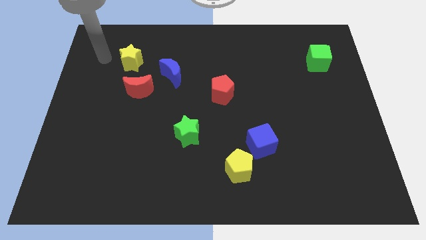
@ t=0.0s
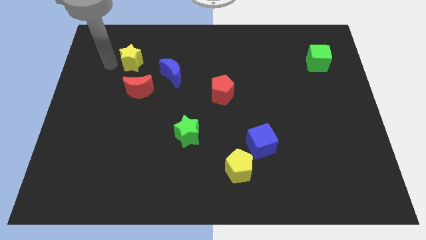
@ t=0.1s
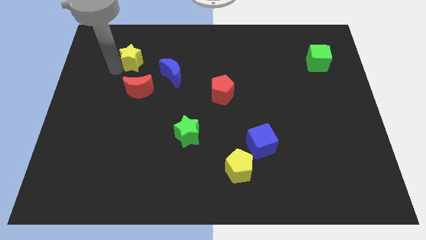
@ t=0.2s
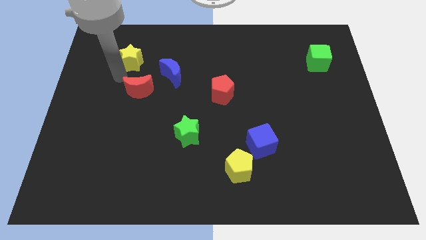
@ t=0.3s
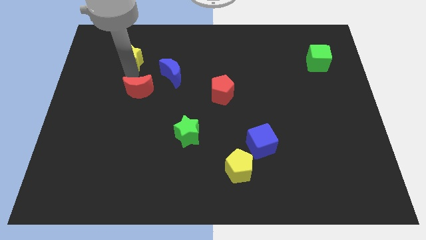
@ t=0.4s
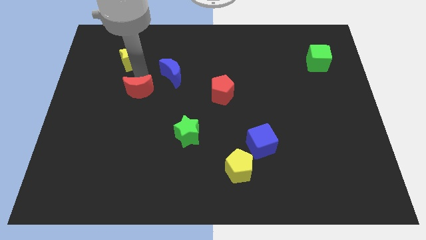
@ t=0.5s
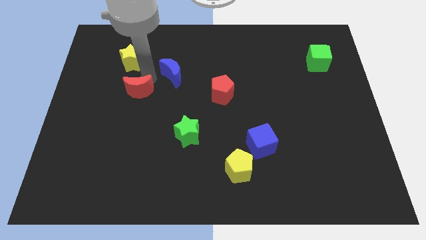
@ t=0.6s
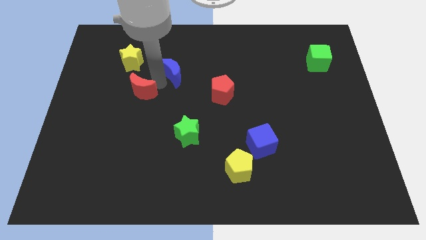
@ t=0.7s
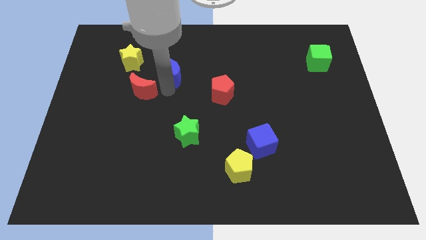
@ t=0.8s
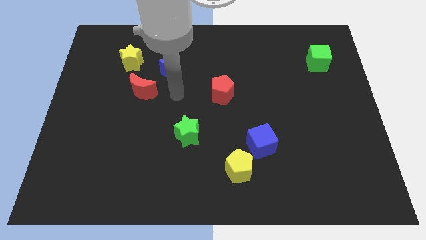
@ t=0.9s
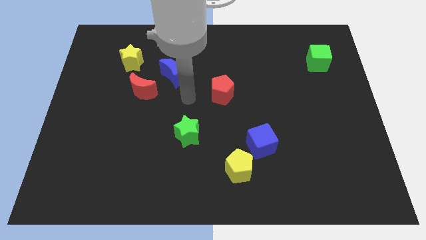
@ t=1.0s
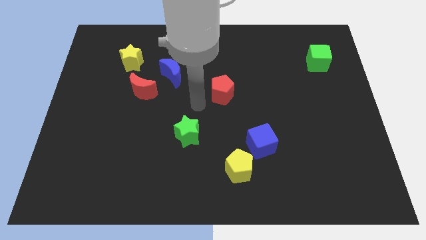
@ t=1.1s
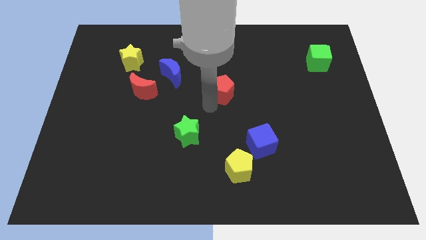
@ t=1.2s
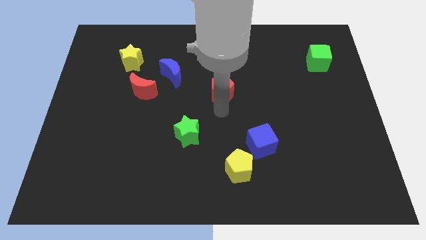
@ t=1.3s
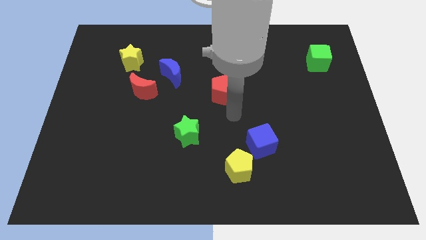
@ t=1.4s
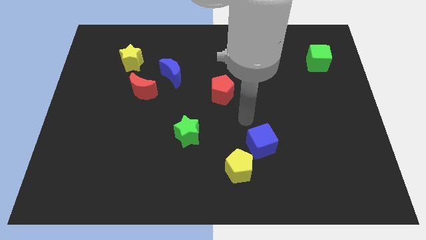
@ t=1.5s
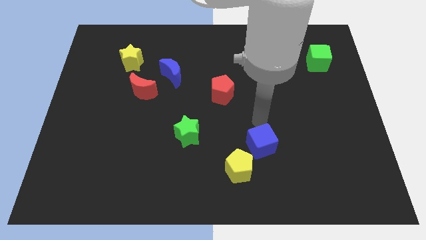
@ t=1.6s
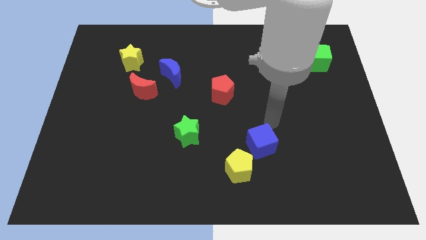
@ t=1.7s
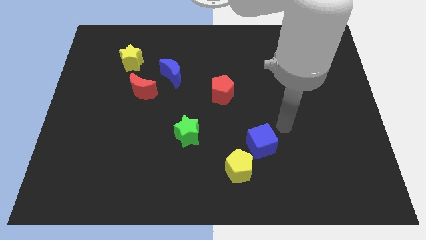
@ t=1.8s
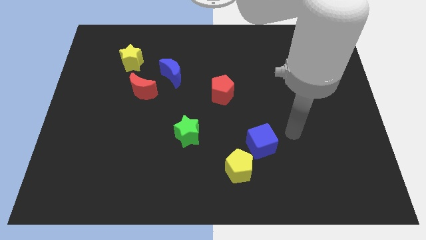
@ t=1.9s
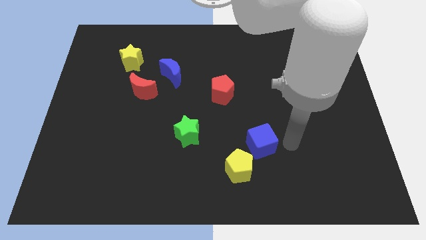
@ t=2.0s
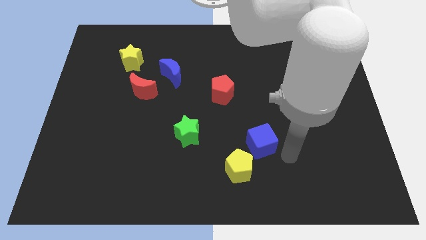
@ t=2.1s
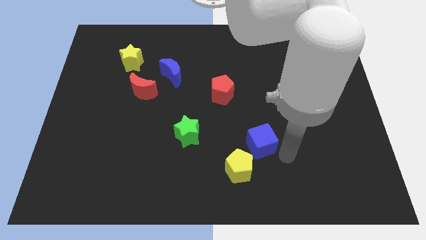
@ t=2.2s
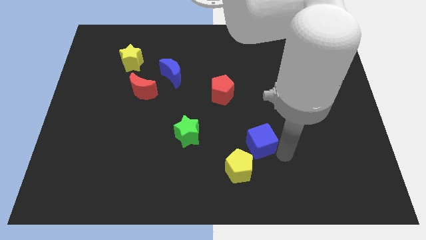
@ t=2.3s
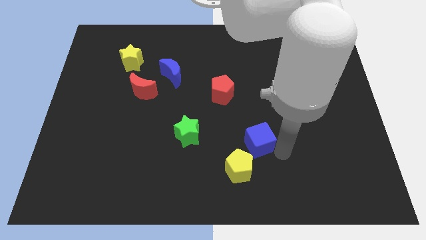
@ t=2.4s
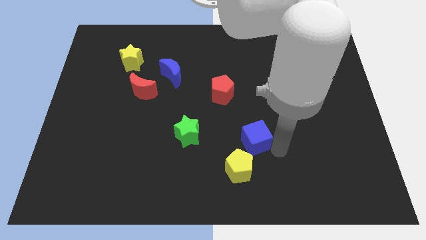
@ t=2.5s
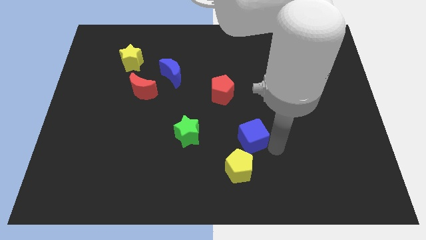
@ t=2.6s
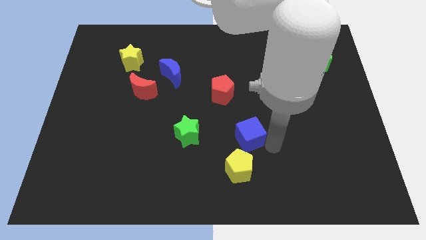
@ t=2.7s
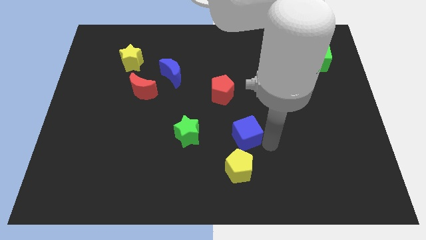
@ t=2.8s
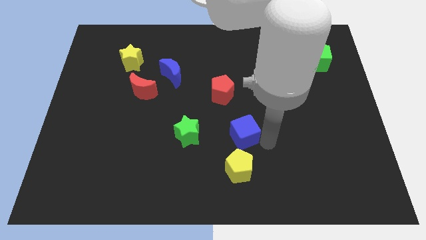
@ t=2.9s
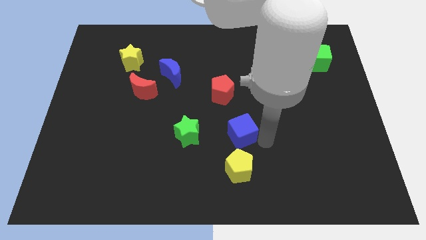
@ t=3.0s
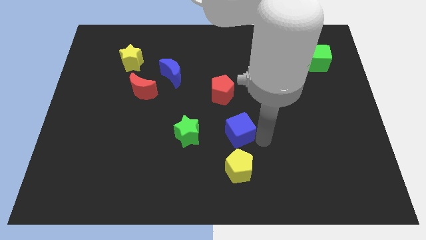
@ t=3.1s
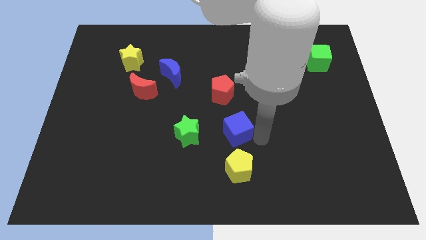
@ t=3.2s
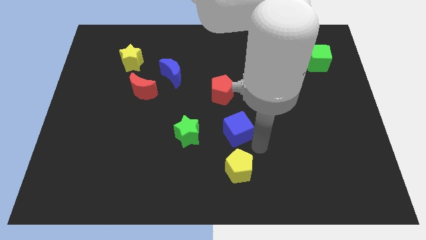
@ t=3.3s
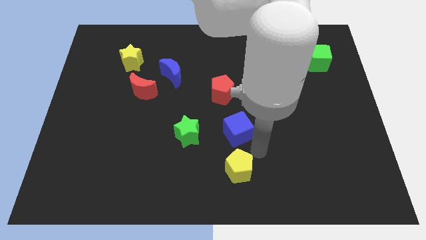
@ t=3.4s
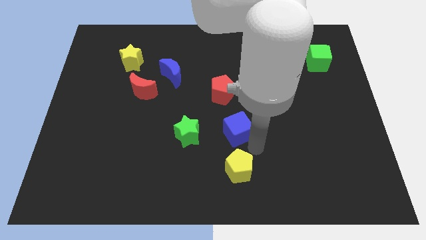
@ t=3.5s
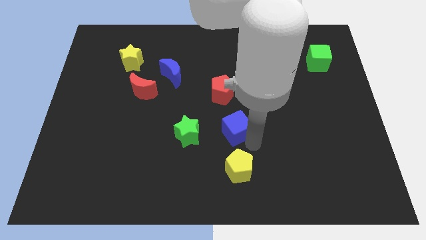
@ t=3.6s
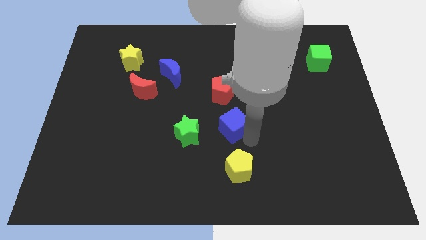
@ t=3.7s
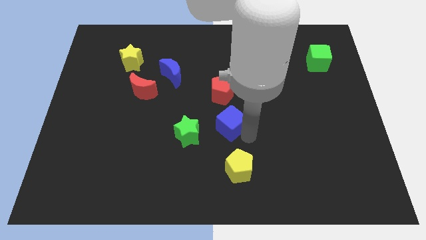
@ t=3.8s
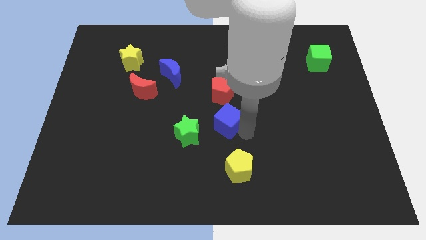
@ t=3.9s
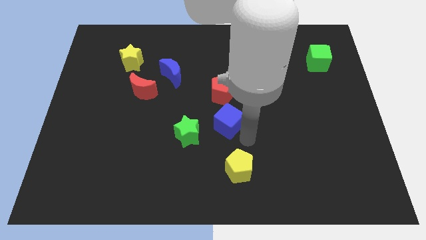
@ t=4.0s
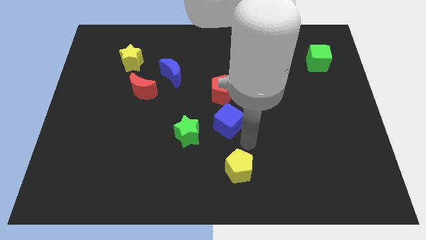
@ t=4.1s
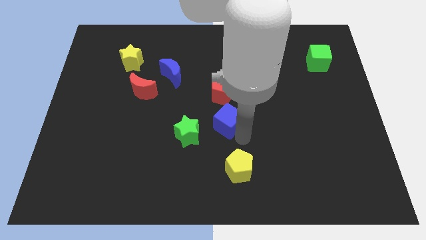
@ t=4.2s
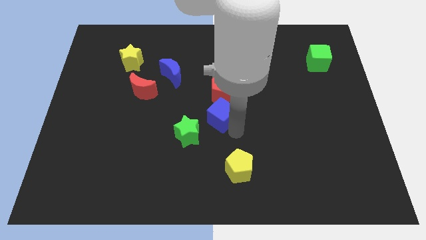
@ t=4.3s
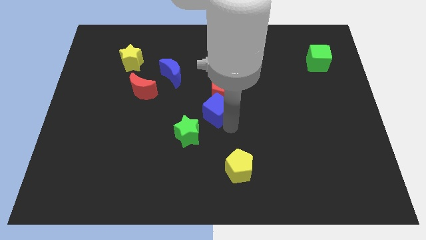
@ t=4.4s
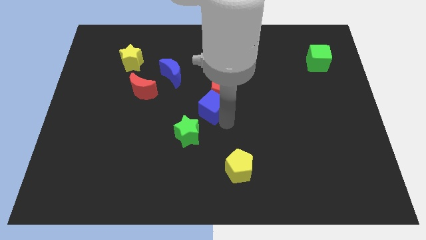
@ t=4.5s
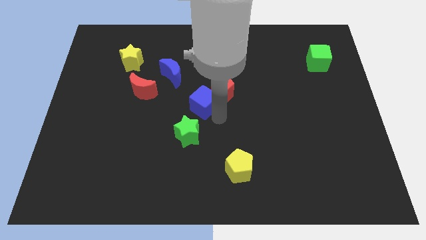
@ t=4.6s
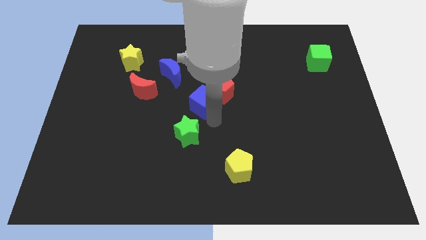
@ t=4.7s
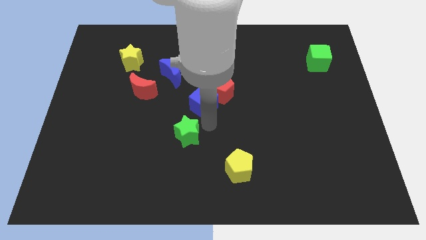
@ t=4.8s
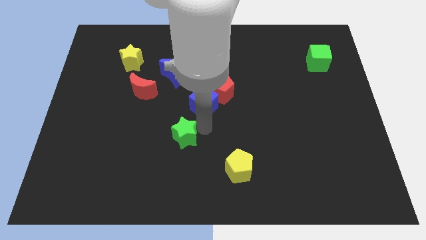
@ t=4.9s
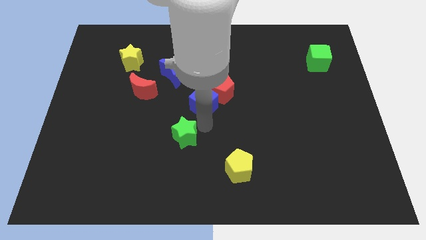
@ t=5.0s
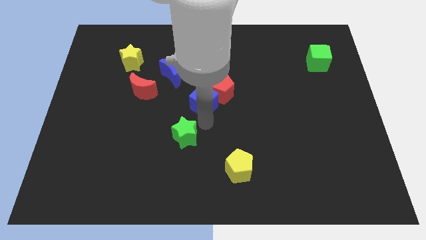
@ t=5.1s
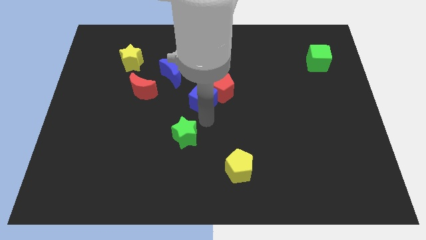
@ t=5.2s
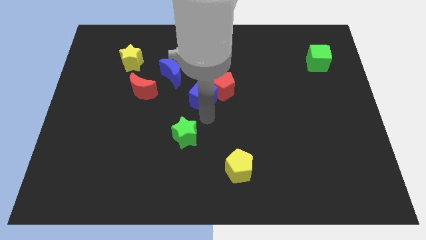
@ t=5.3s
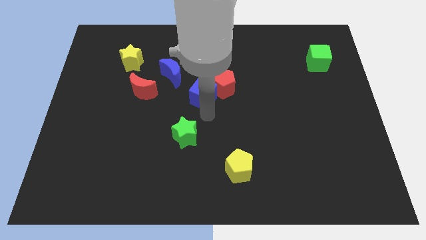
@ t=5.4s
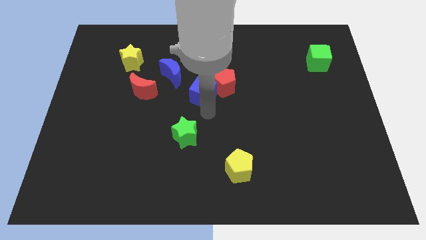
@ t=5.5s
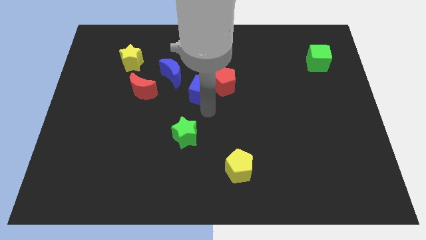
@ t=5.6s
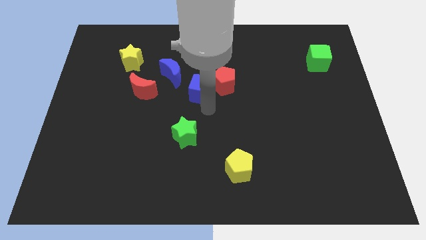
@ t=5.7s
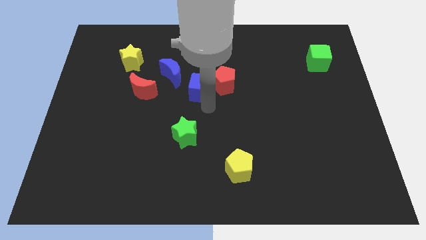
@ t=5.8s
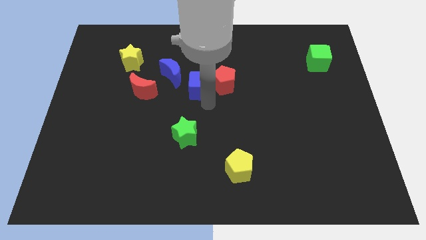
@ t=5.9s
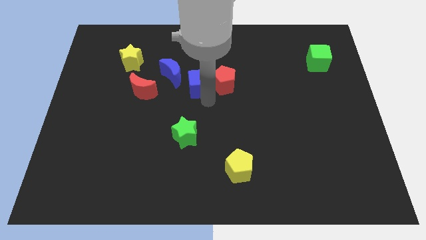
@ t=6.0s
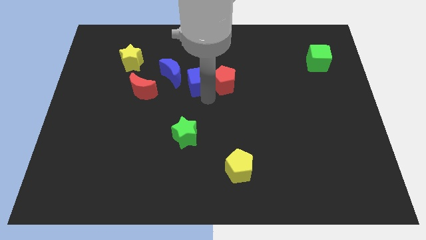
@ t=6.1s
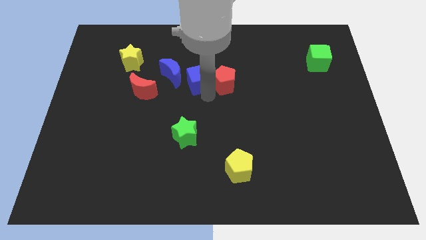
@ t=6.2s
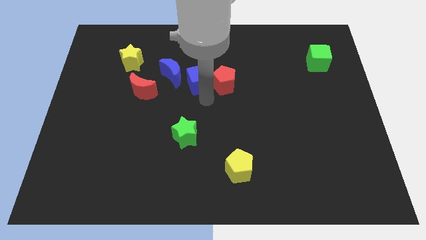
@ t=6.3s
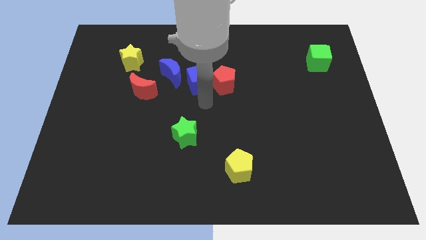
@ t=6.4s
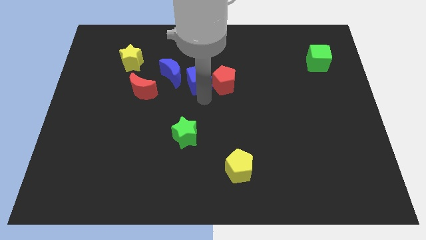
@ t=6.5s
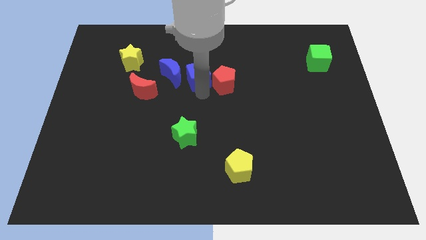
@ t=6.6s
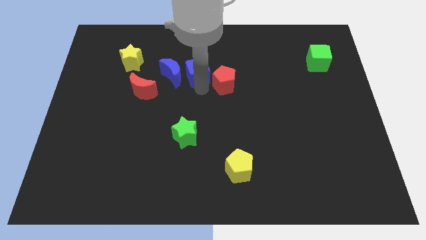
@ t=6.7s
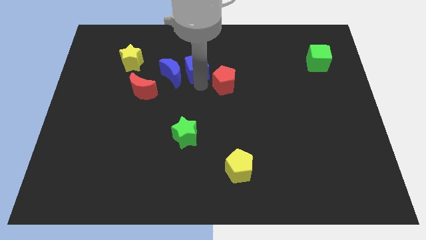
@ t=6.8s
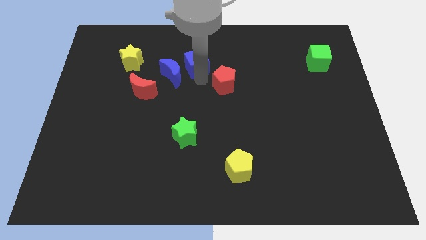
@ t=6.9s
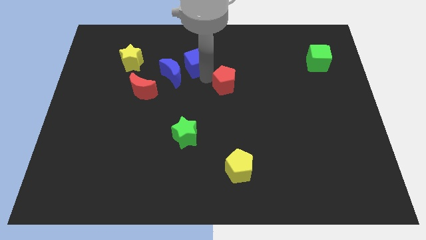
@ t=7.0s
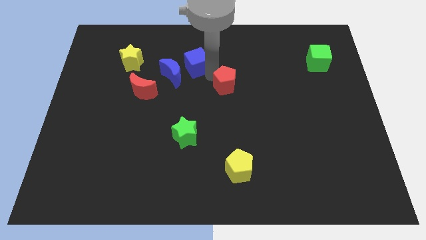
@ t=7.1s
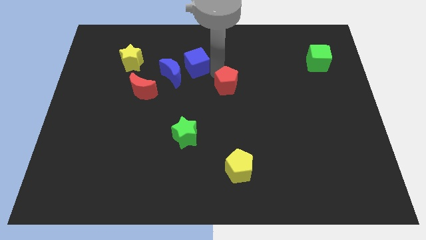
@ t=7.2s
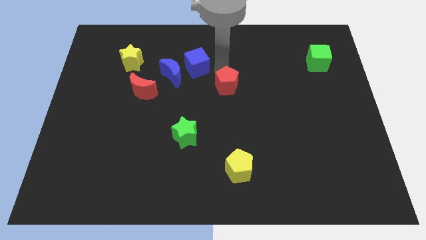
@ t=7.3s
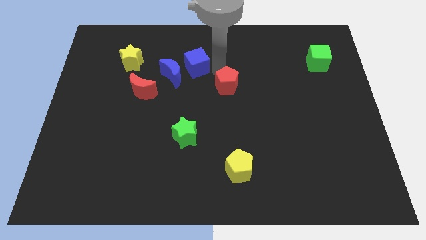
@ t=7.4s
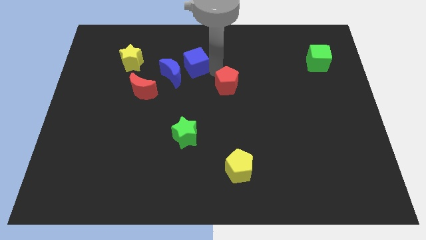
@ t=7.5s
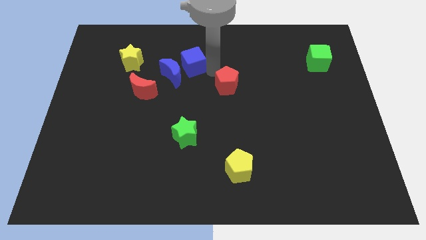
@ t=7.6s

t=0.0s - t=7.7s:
put the blue cube to the right side of the yellow star
